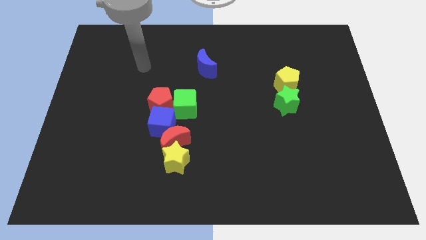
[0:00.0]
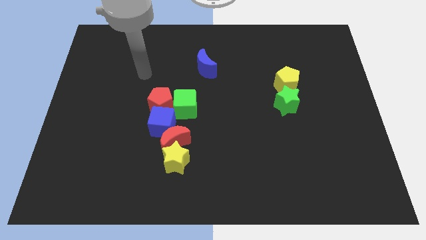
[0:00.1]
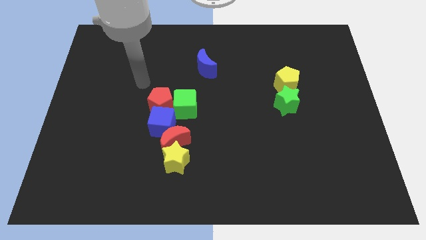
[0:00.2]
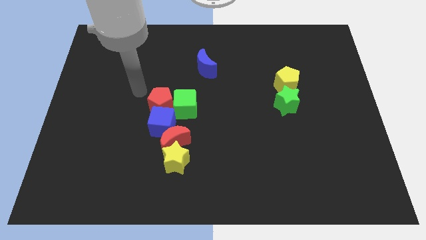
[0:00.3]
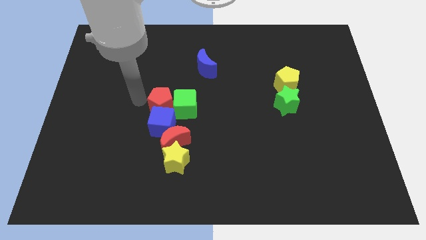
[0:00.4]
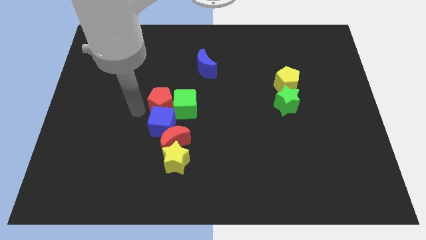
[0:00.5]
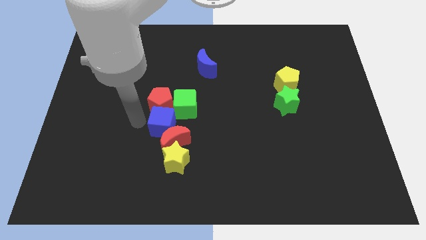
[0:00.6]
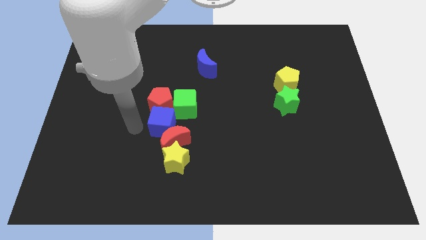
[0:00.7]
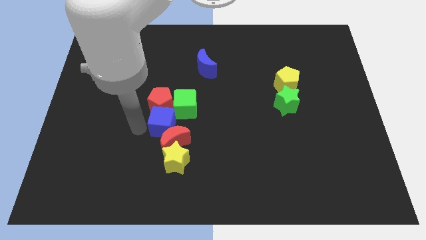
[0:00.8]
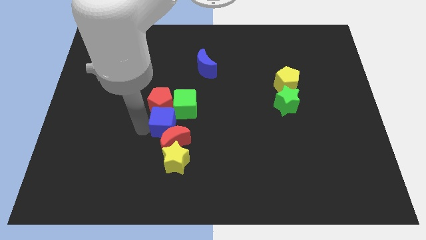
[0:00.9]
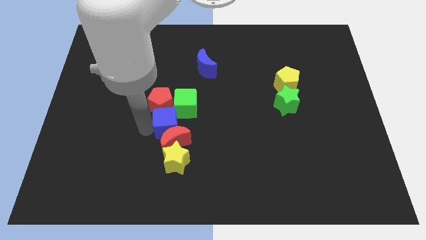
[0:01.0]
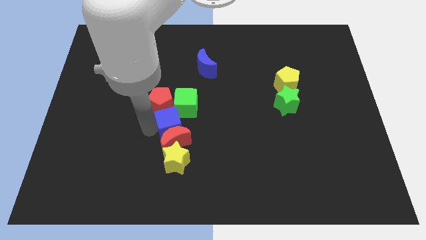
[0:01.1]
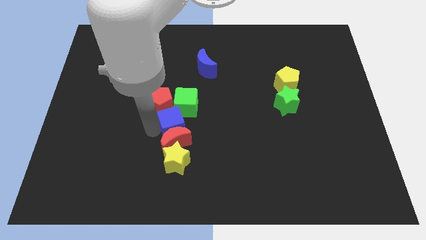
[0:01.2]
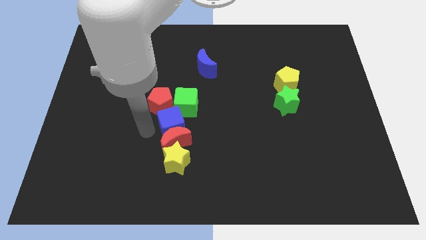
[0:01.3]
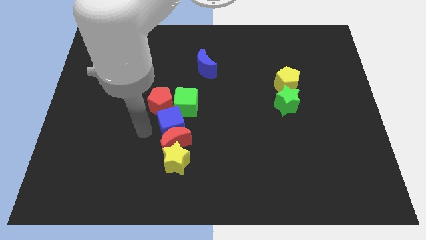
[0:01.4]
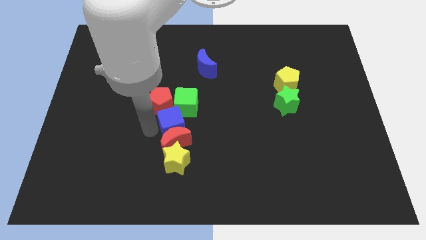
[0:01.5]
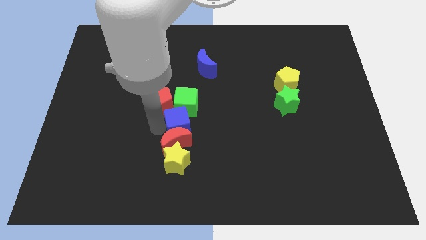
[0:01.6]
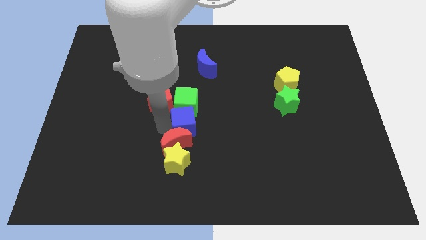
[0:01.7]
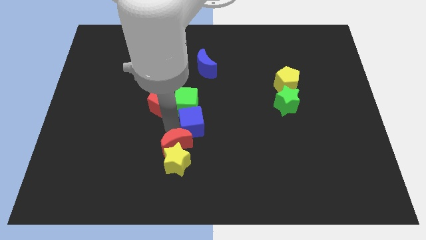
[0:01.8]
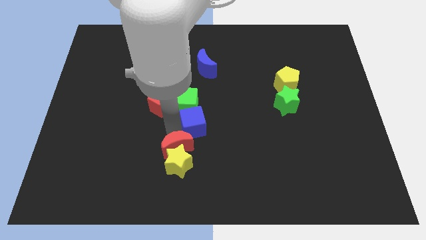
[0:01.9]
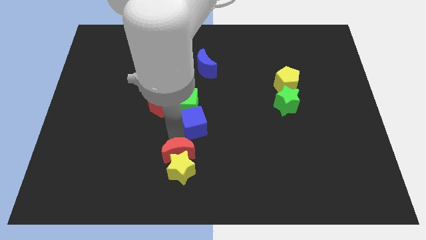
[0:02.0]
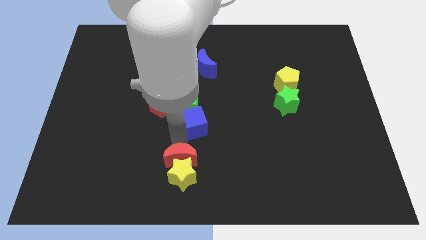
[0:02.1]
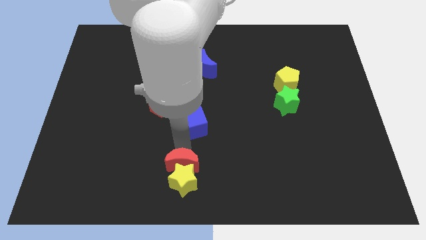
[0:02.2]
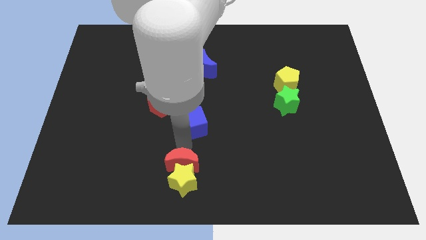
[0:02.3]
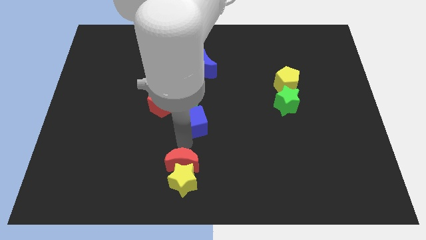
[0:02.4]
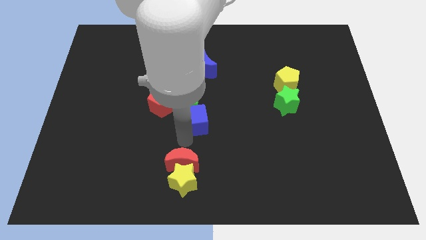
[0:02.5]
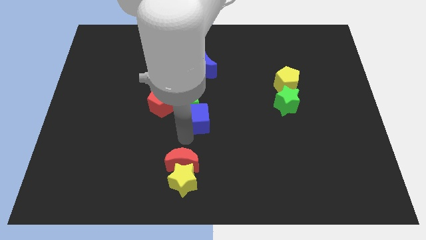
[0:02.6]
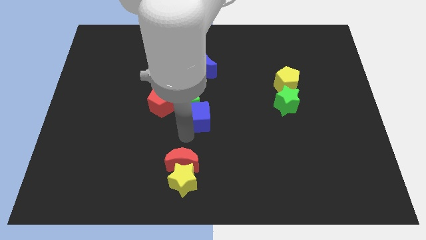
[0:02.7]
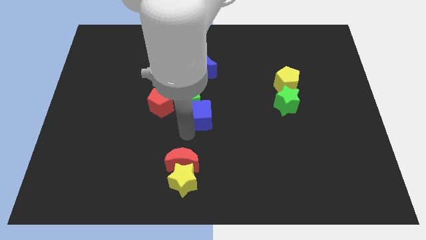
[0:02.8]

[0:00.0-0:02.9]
slightly push the blue cube upwards and right diagonally

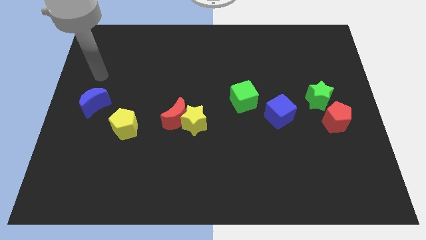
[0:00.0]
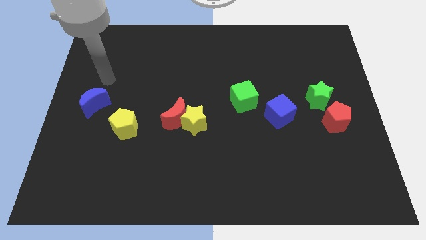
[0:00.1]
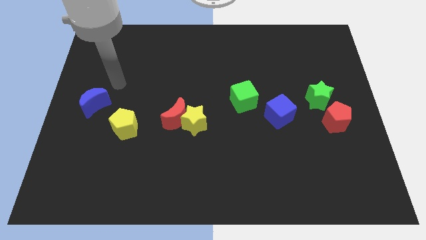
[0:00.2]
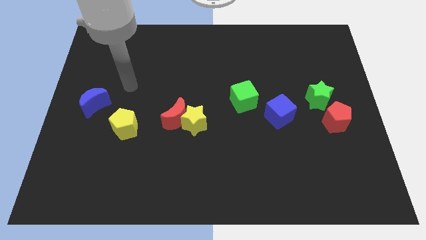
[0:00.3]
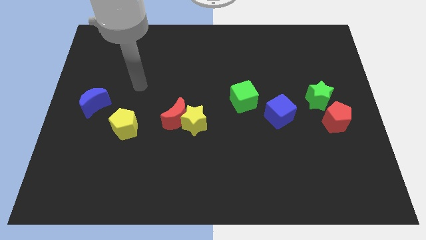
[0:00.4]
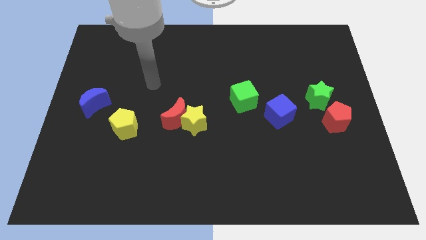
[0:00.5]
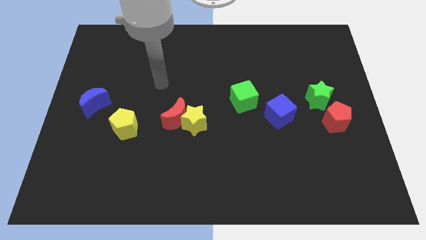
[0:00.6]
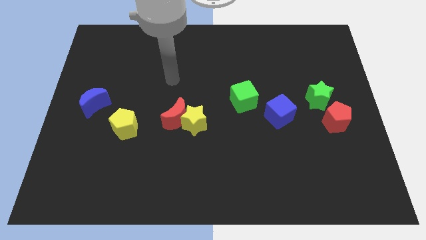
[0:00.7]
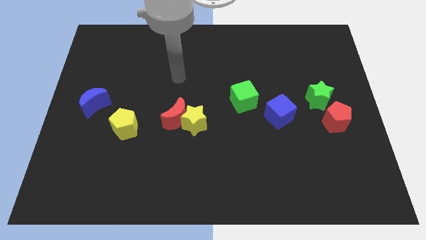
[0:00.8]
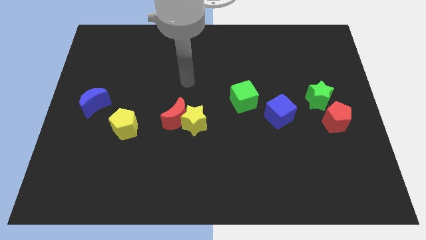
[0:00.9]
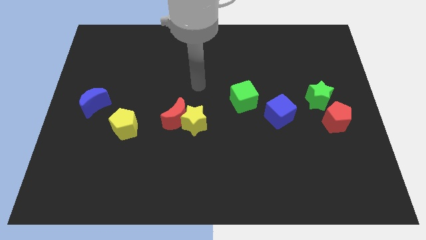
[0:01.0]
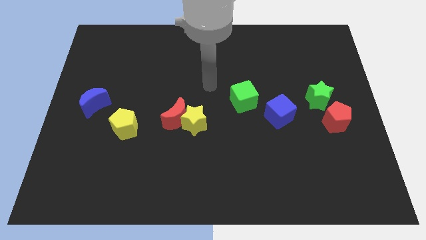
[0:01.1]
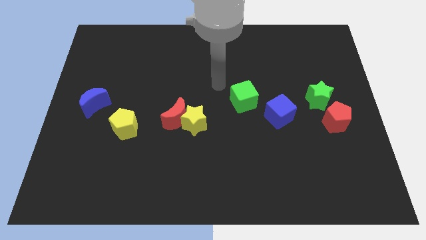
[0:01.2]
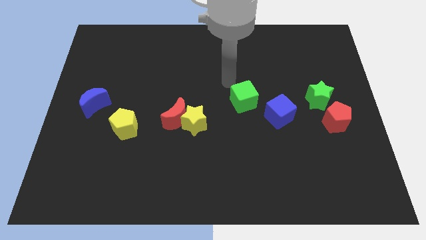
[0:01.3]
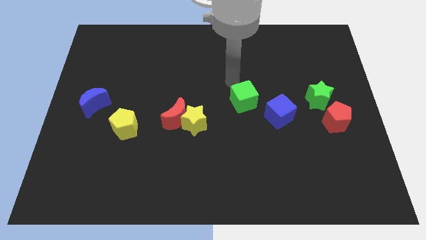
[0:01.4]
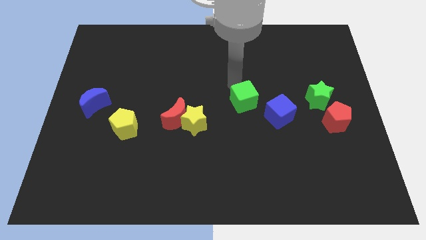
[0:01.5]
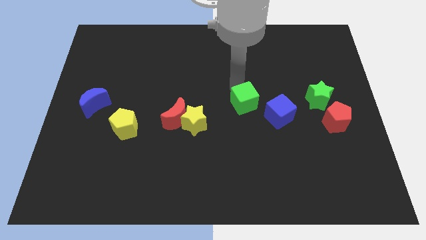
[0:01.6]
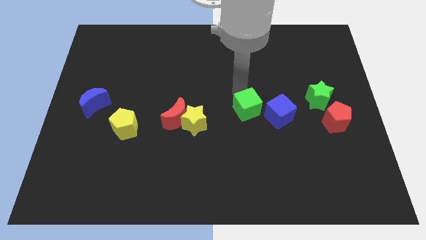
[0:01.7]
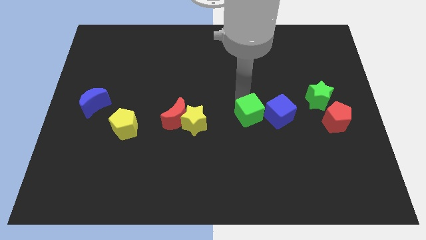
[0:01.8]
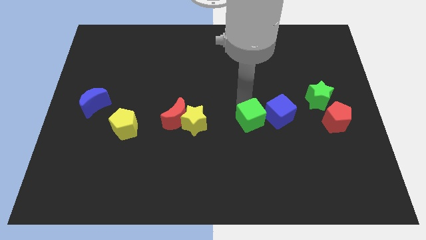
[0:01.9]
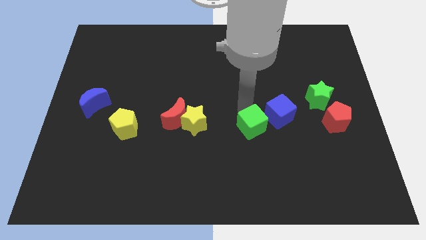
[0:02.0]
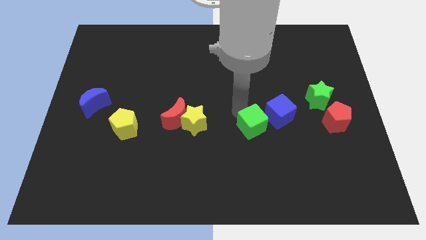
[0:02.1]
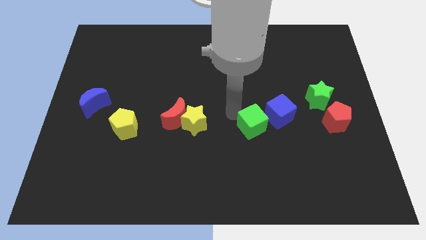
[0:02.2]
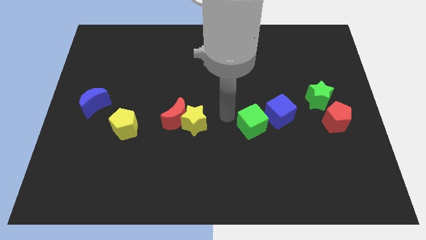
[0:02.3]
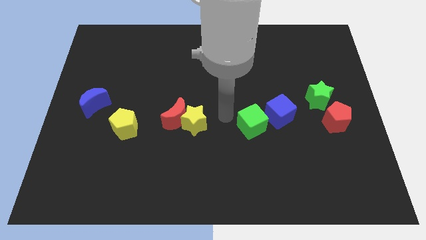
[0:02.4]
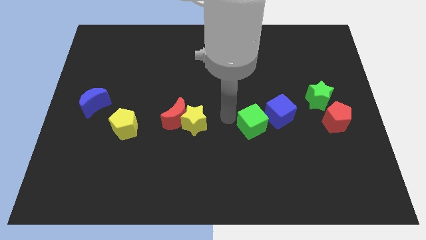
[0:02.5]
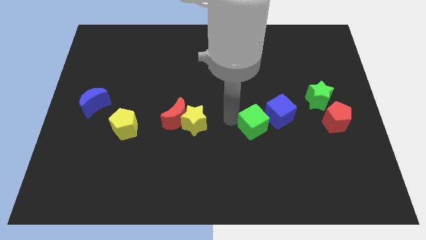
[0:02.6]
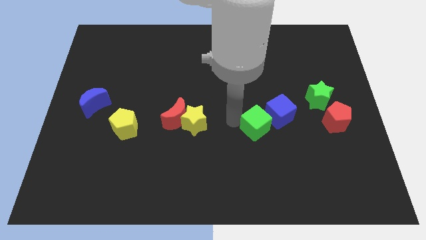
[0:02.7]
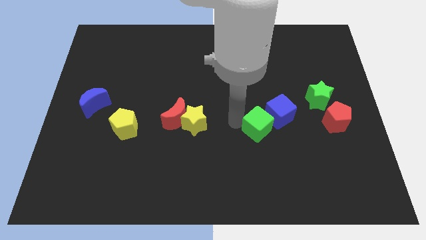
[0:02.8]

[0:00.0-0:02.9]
slightly move the green cube downwards and then right

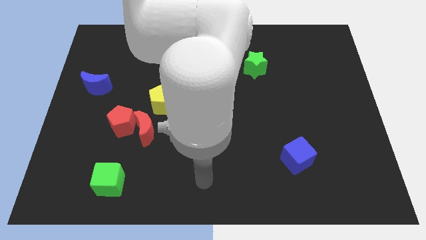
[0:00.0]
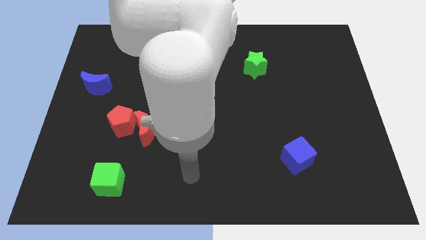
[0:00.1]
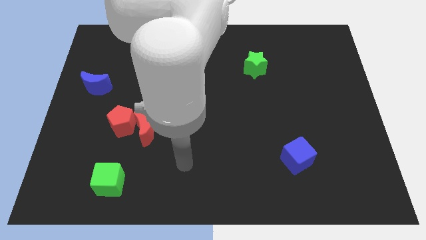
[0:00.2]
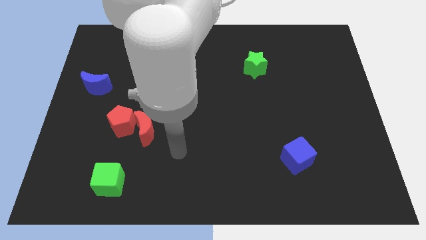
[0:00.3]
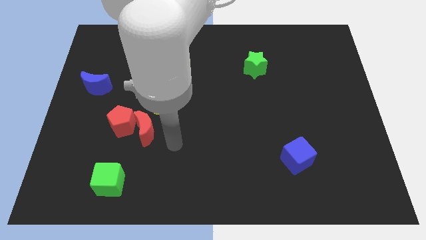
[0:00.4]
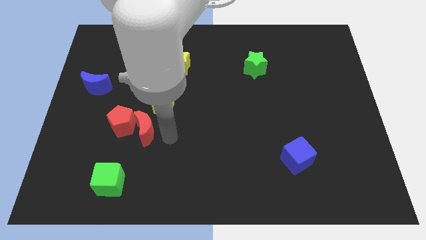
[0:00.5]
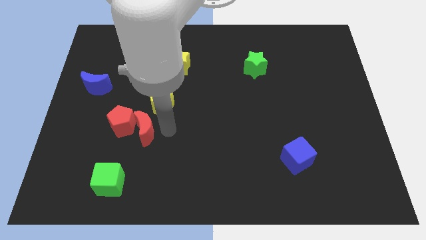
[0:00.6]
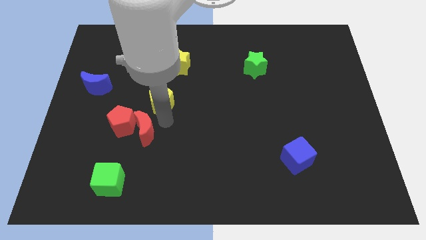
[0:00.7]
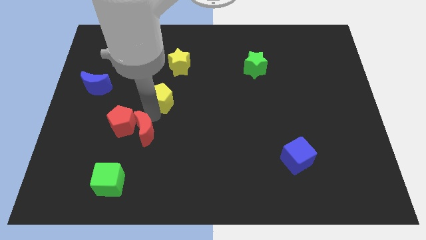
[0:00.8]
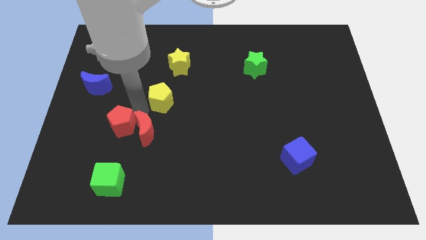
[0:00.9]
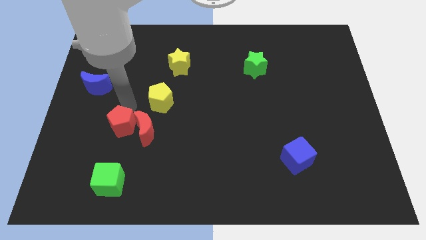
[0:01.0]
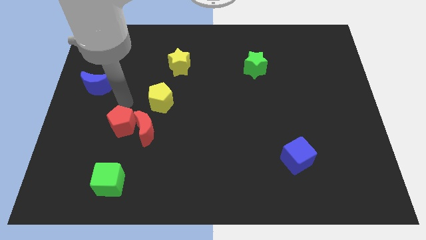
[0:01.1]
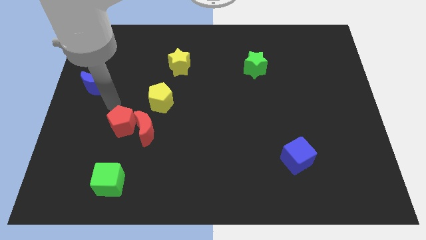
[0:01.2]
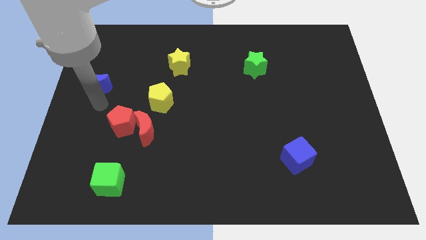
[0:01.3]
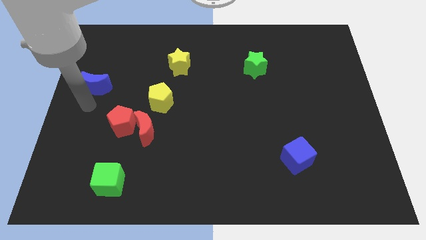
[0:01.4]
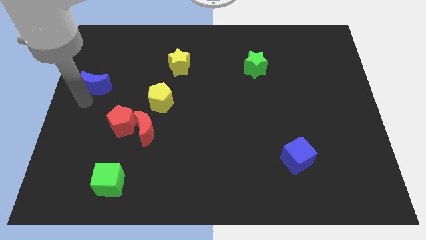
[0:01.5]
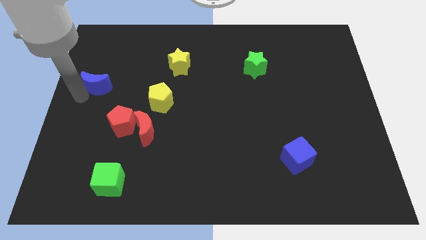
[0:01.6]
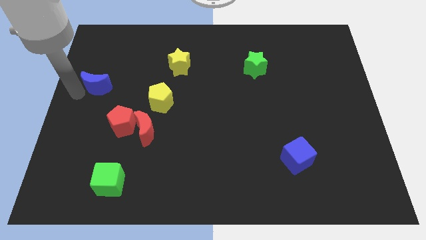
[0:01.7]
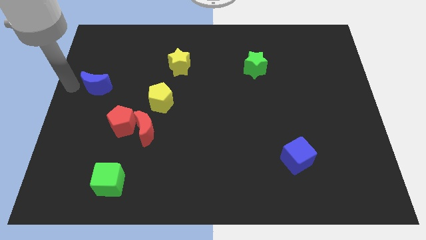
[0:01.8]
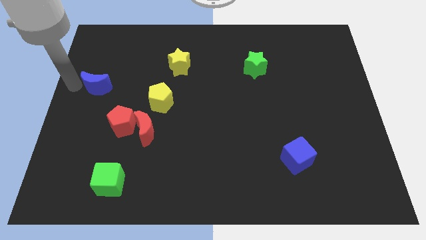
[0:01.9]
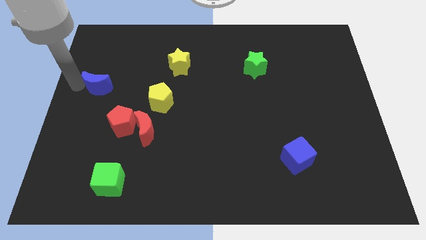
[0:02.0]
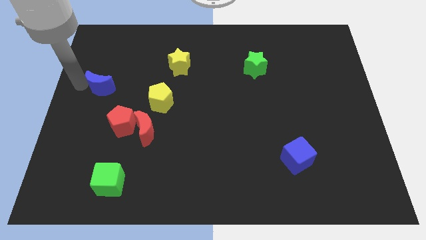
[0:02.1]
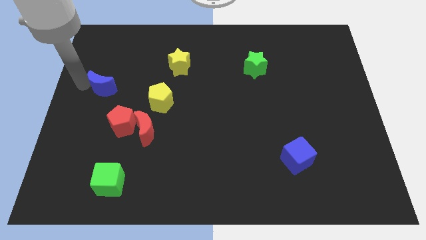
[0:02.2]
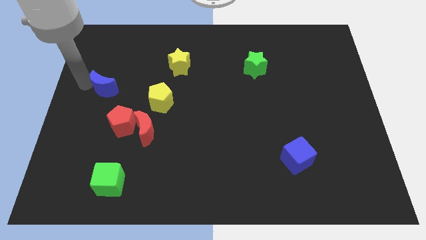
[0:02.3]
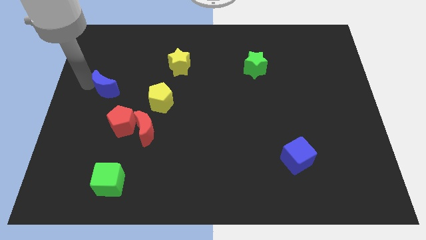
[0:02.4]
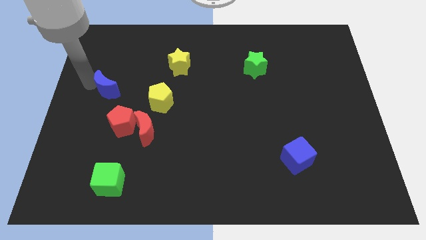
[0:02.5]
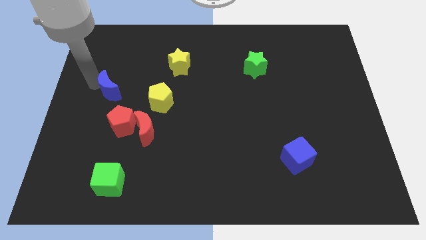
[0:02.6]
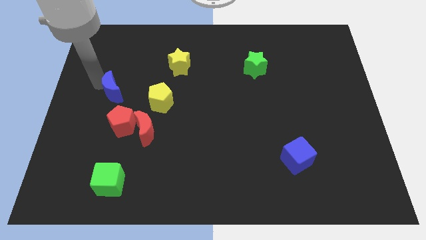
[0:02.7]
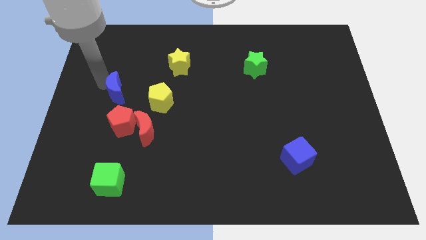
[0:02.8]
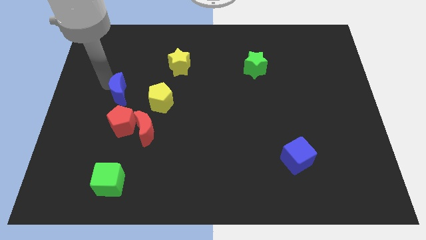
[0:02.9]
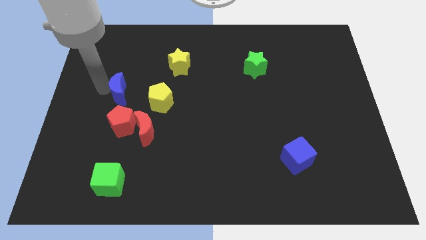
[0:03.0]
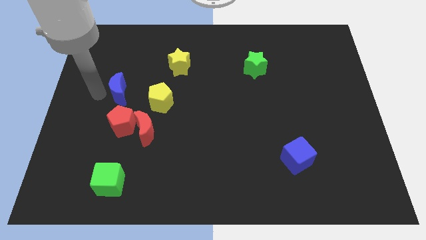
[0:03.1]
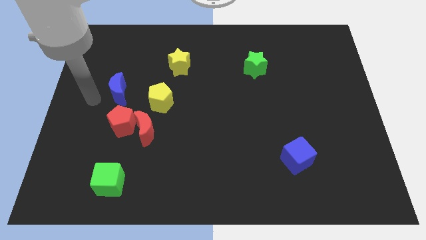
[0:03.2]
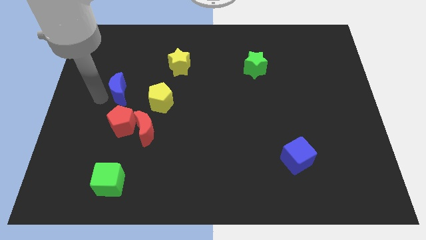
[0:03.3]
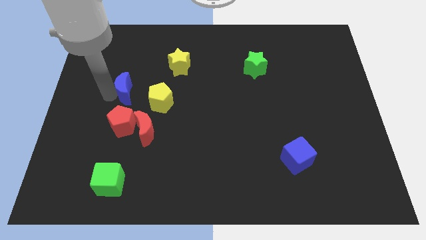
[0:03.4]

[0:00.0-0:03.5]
slightly move the blue moon to the right
